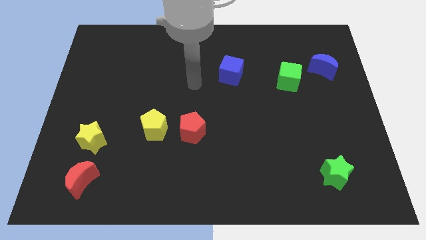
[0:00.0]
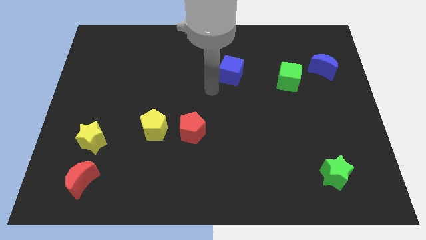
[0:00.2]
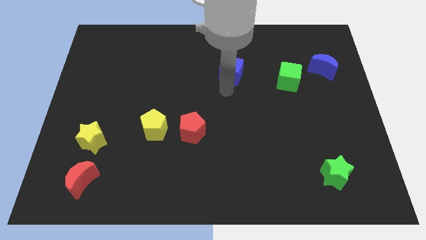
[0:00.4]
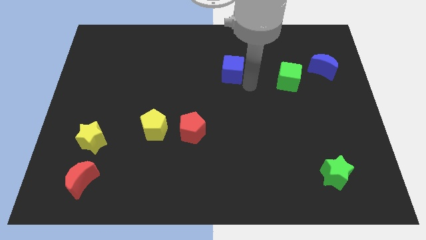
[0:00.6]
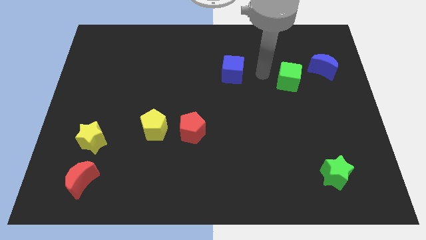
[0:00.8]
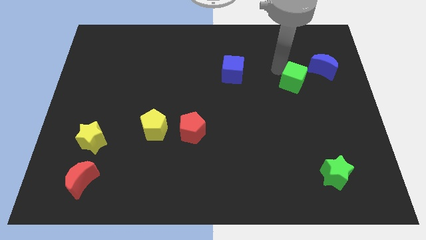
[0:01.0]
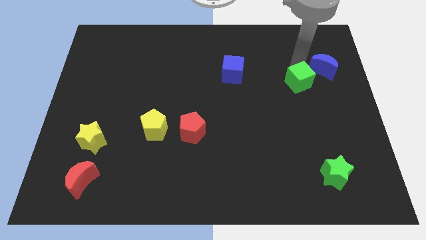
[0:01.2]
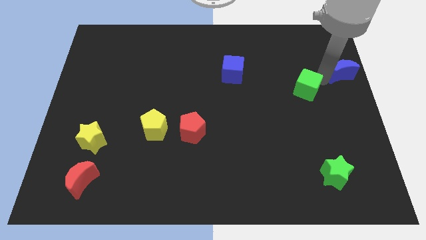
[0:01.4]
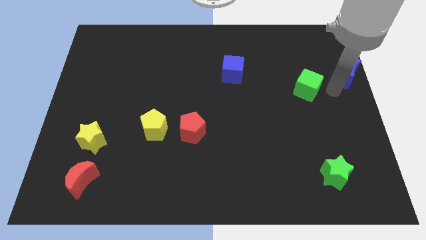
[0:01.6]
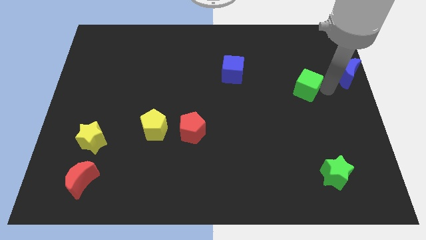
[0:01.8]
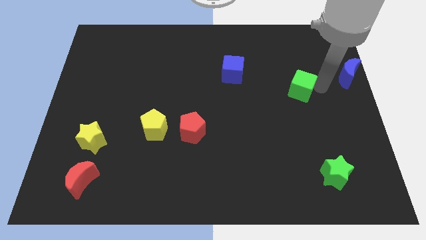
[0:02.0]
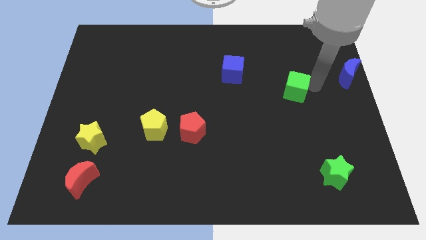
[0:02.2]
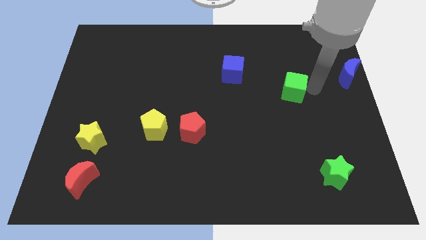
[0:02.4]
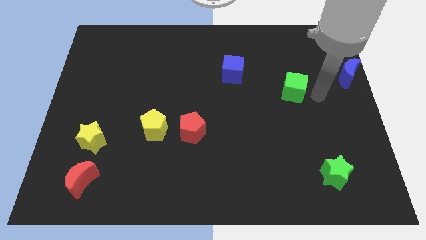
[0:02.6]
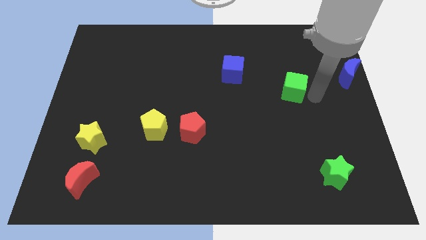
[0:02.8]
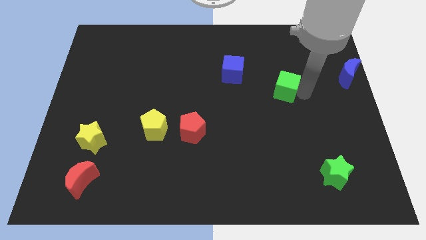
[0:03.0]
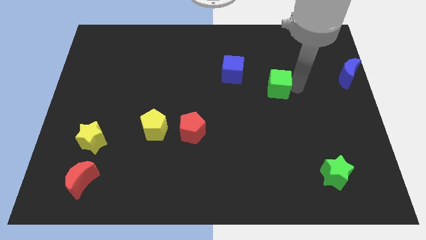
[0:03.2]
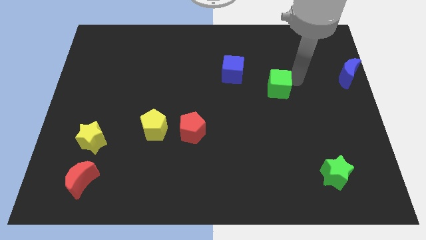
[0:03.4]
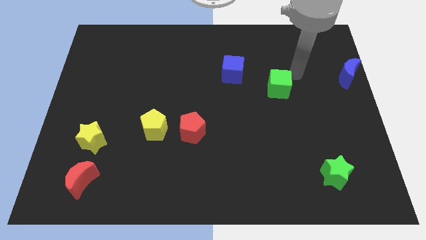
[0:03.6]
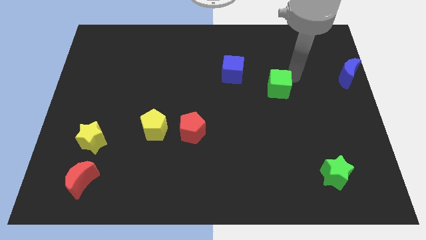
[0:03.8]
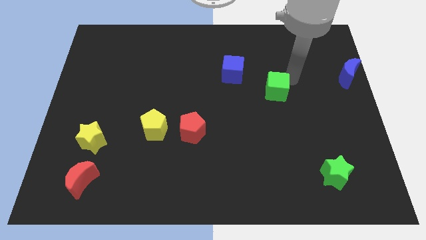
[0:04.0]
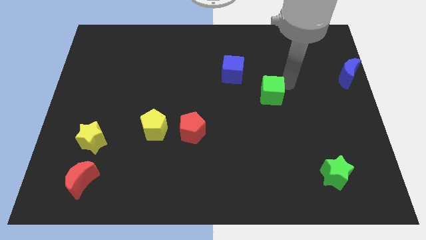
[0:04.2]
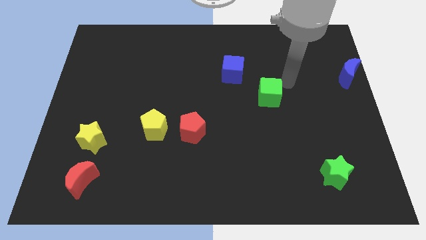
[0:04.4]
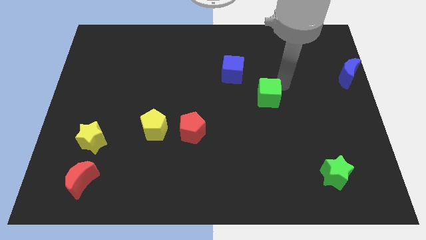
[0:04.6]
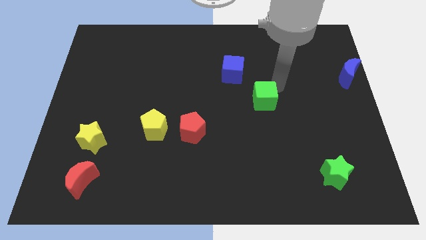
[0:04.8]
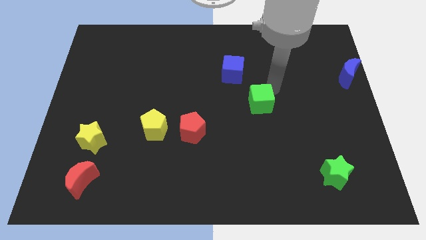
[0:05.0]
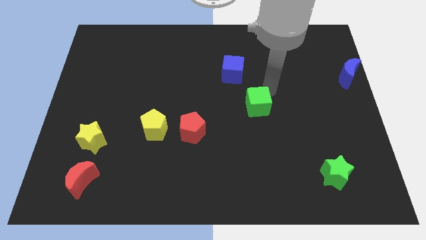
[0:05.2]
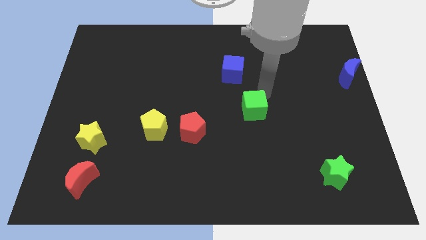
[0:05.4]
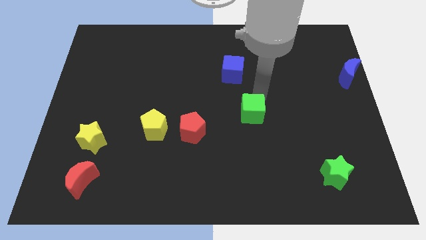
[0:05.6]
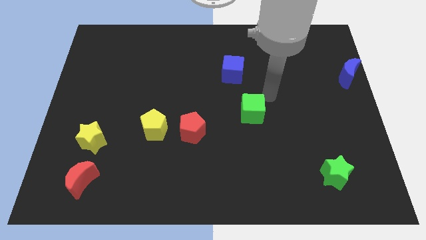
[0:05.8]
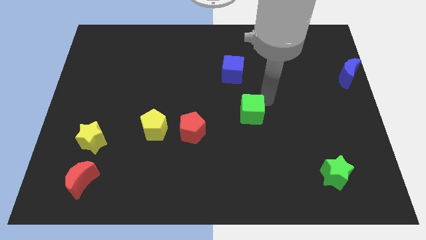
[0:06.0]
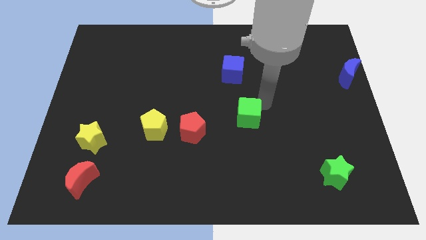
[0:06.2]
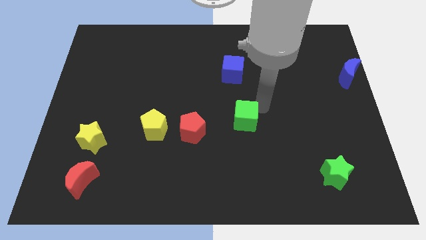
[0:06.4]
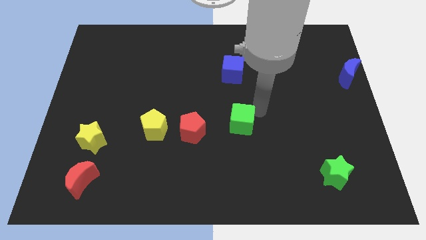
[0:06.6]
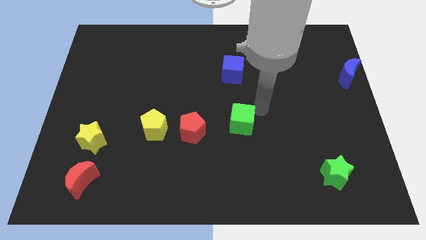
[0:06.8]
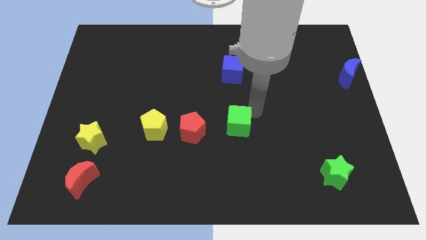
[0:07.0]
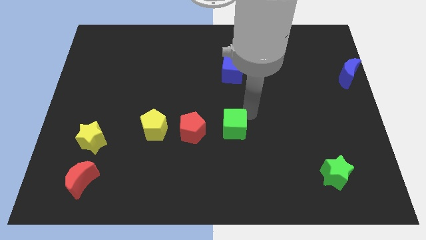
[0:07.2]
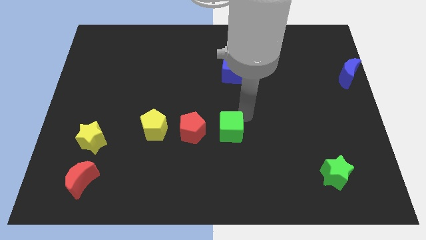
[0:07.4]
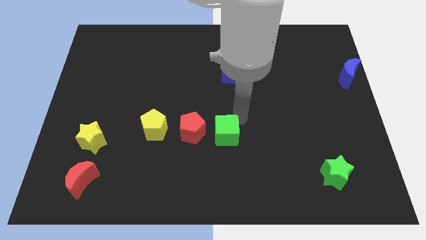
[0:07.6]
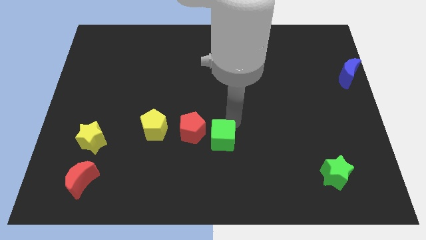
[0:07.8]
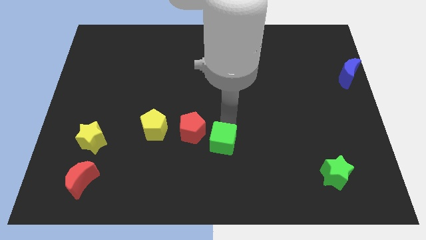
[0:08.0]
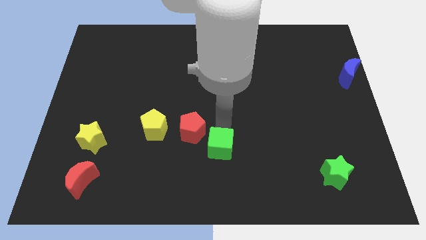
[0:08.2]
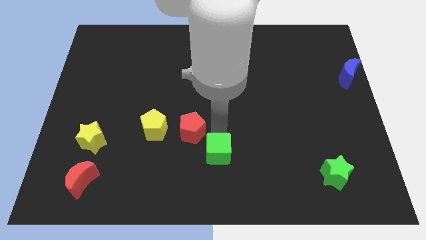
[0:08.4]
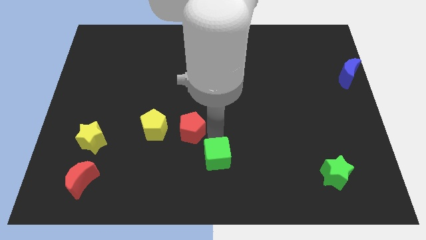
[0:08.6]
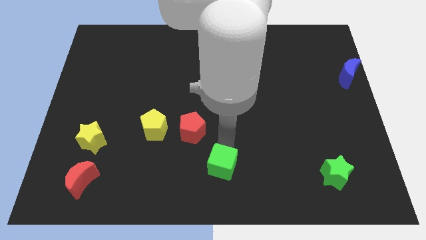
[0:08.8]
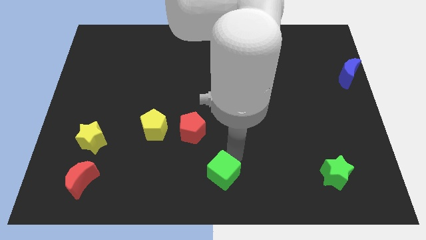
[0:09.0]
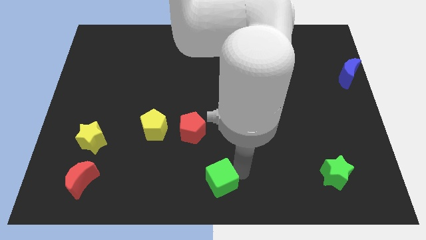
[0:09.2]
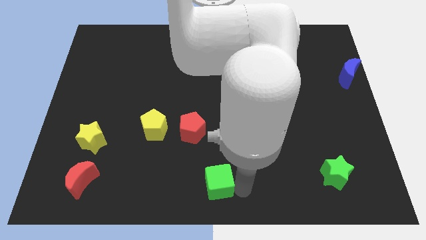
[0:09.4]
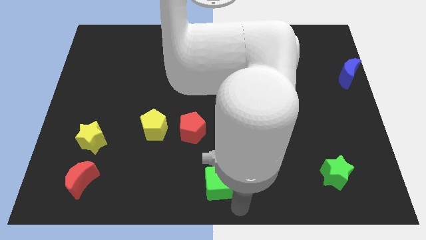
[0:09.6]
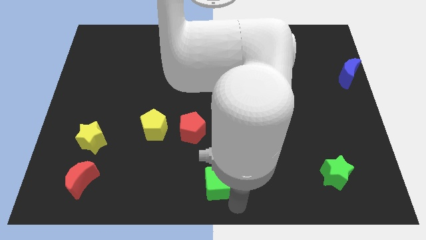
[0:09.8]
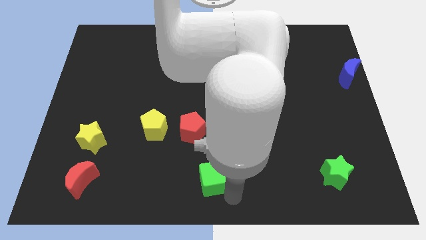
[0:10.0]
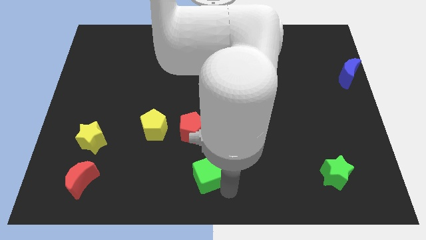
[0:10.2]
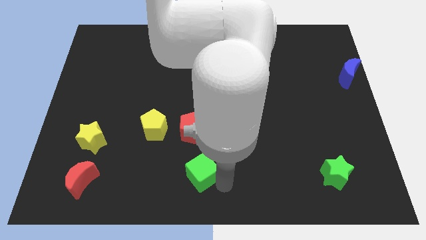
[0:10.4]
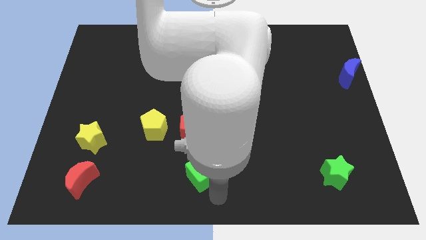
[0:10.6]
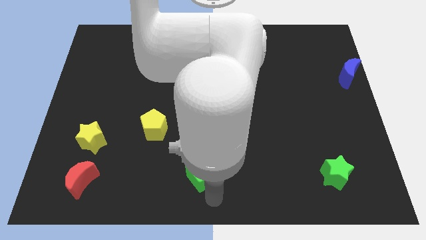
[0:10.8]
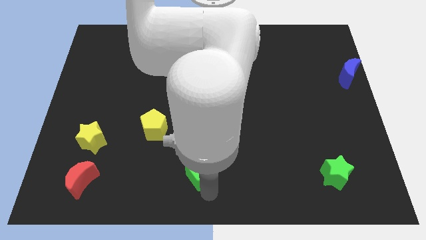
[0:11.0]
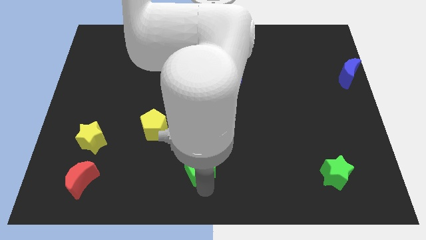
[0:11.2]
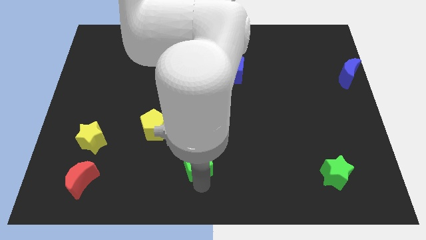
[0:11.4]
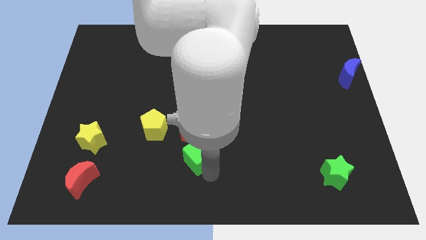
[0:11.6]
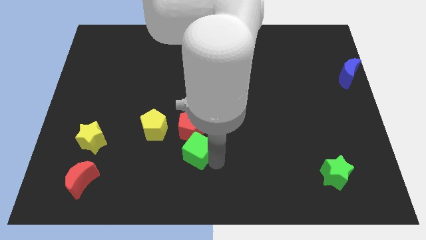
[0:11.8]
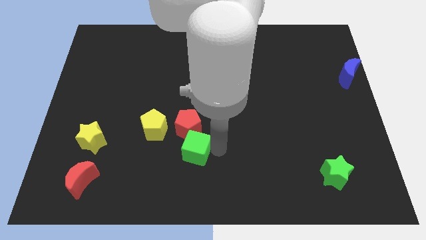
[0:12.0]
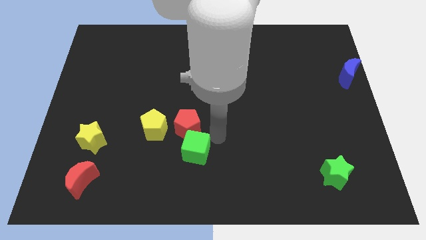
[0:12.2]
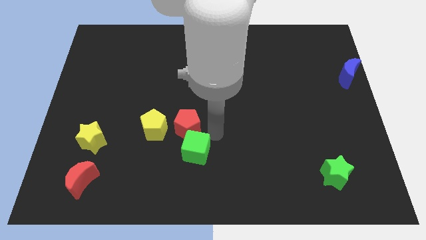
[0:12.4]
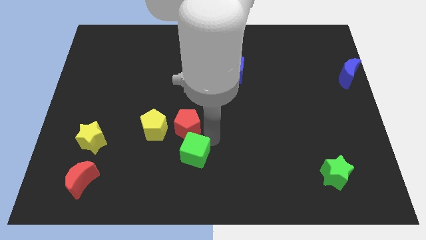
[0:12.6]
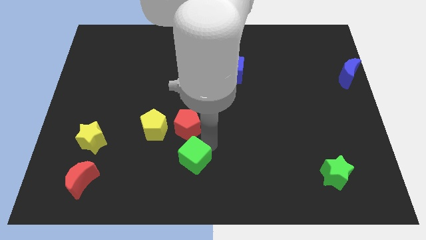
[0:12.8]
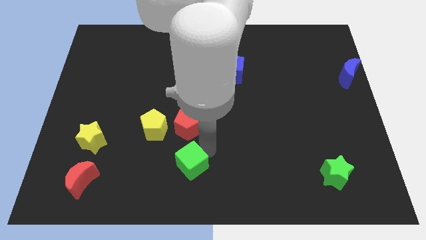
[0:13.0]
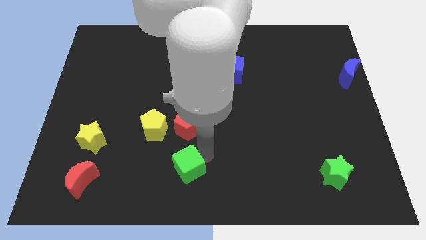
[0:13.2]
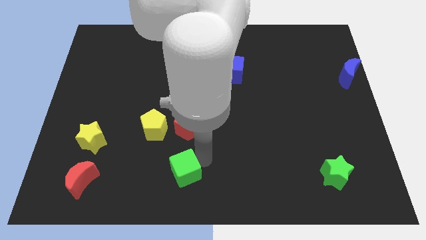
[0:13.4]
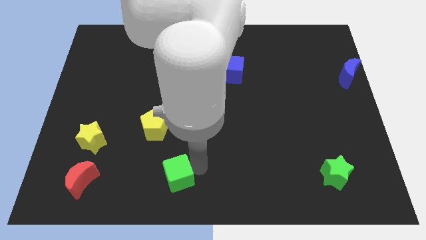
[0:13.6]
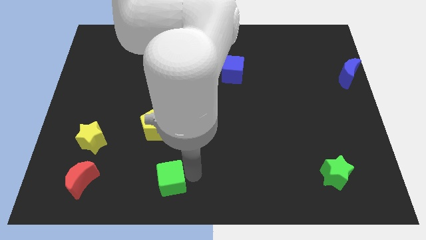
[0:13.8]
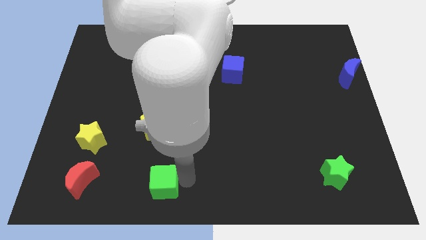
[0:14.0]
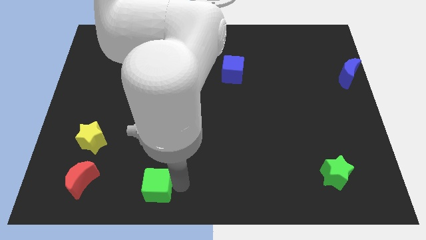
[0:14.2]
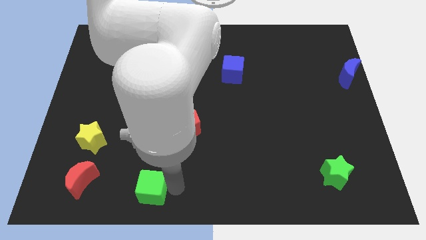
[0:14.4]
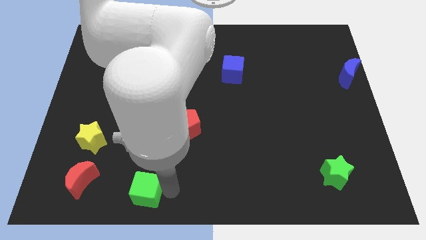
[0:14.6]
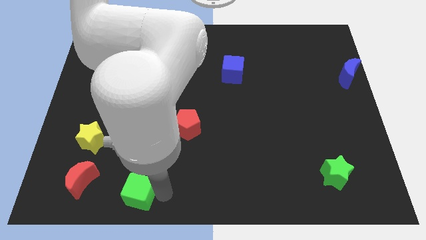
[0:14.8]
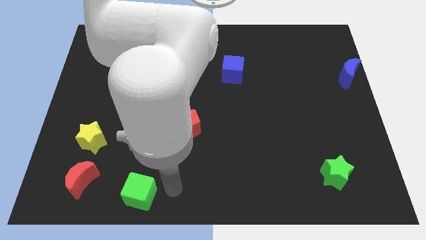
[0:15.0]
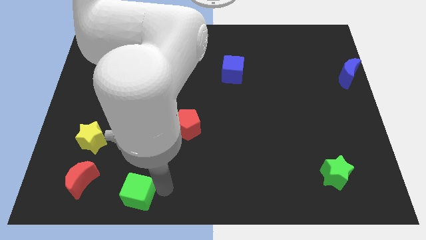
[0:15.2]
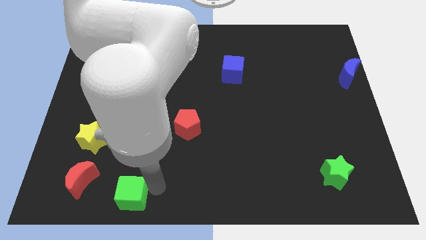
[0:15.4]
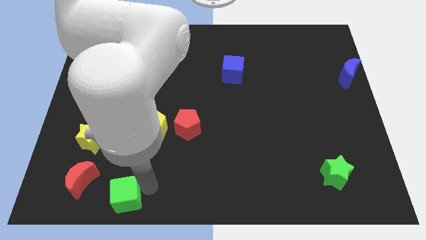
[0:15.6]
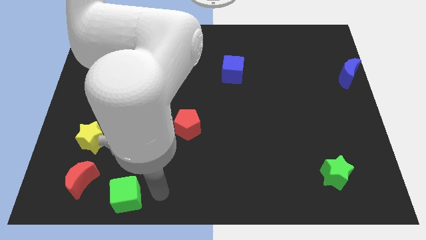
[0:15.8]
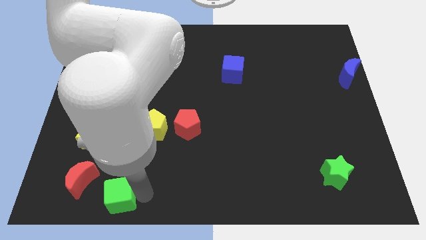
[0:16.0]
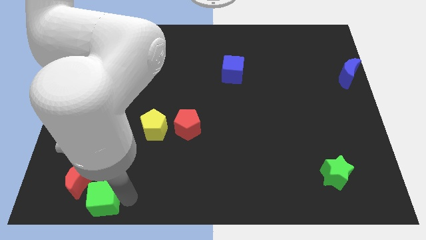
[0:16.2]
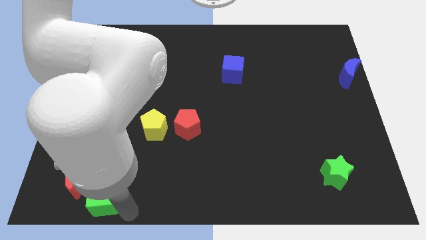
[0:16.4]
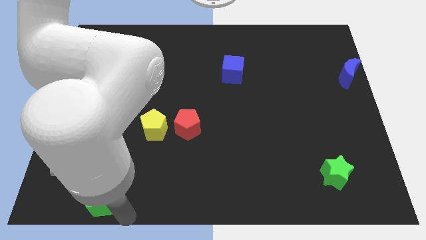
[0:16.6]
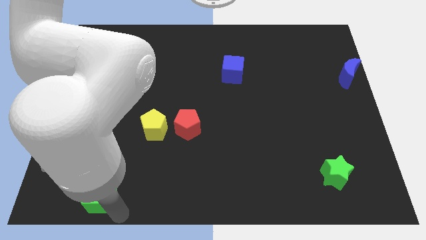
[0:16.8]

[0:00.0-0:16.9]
slide the green cube to the bottom of the yellow star

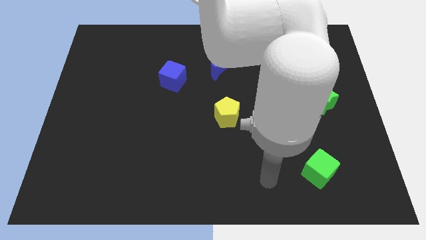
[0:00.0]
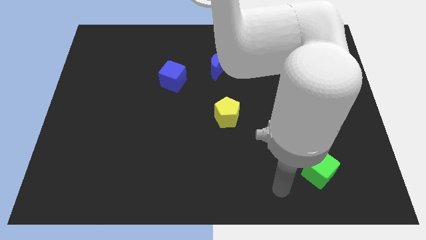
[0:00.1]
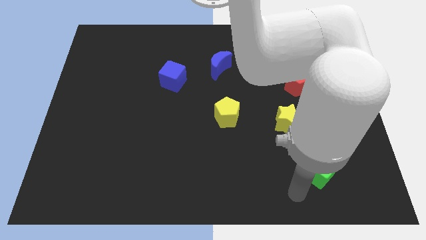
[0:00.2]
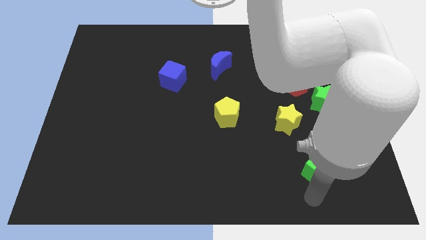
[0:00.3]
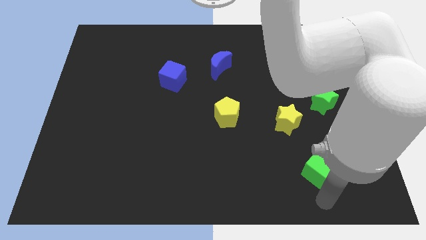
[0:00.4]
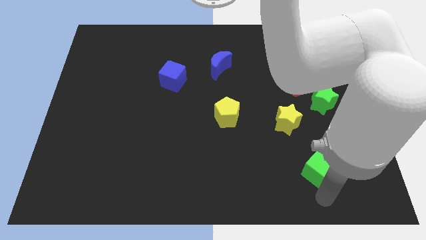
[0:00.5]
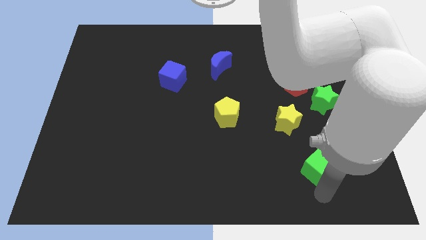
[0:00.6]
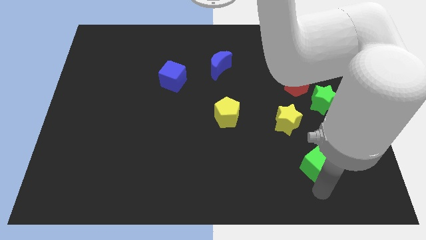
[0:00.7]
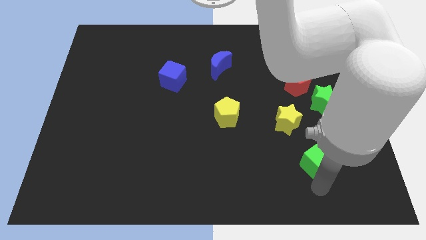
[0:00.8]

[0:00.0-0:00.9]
put the green cube to the bottom right of the yellow star
